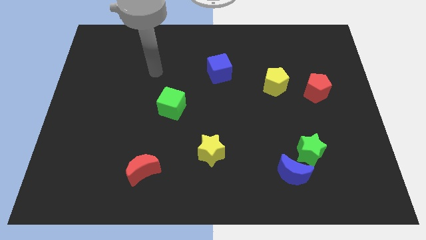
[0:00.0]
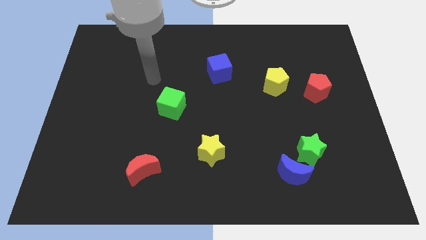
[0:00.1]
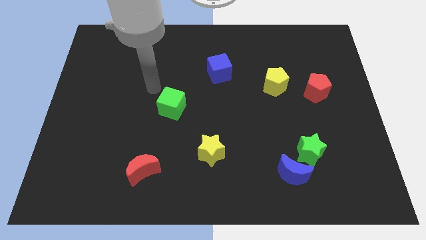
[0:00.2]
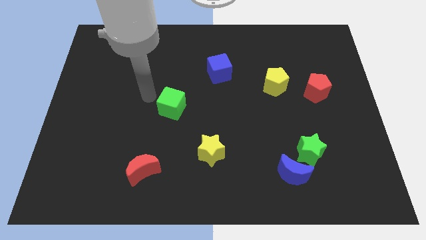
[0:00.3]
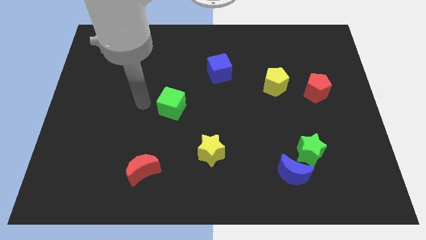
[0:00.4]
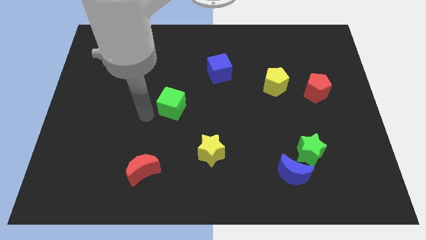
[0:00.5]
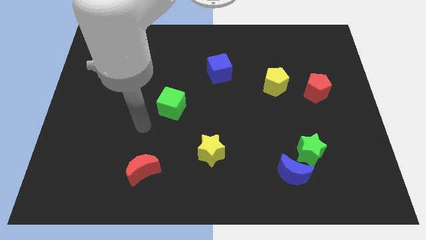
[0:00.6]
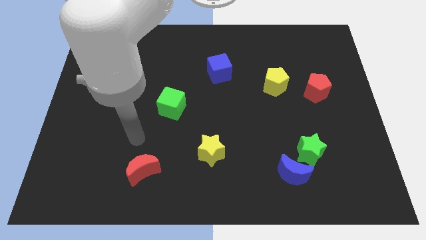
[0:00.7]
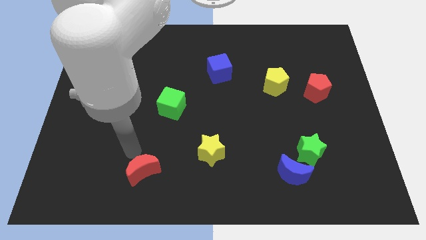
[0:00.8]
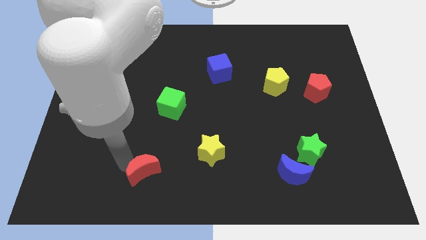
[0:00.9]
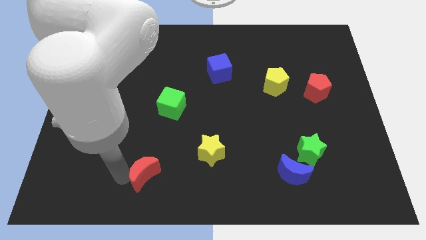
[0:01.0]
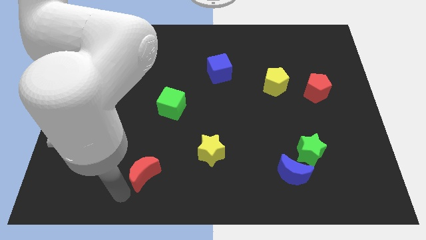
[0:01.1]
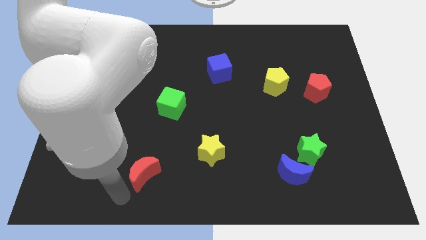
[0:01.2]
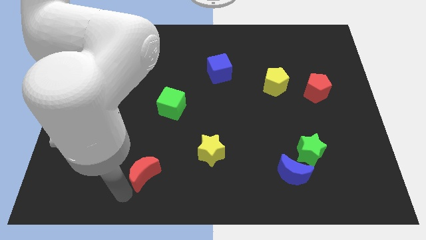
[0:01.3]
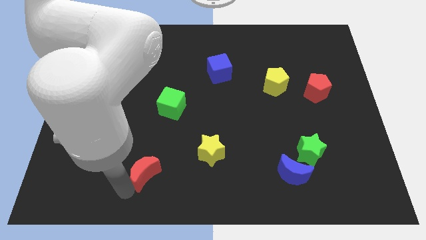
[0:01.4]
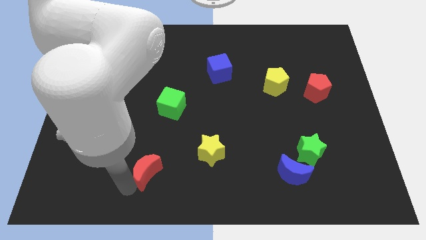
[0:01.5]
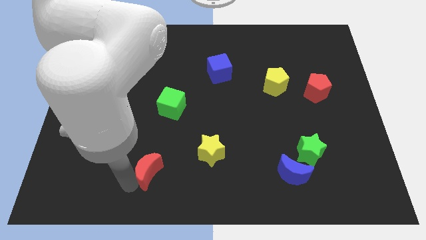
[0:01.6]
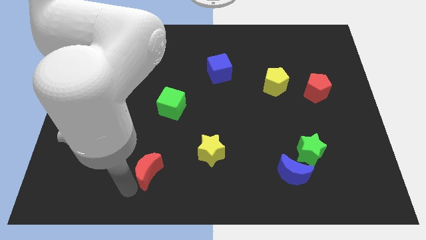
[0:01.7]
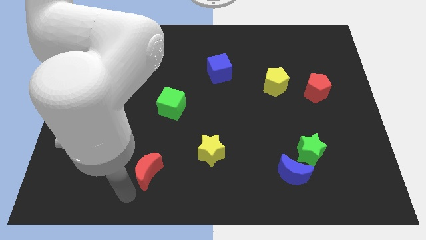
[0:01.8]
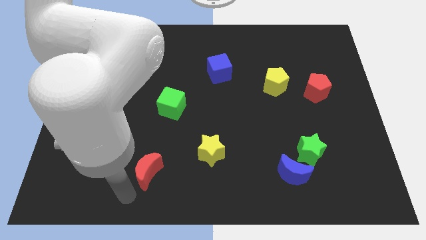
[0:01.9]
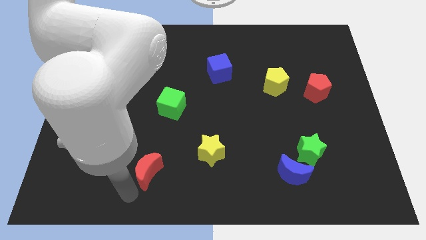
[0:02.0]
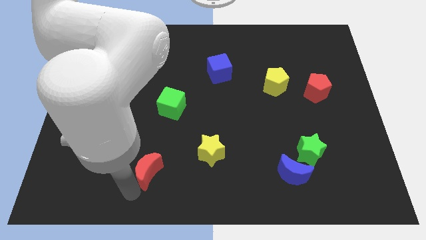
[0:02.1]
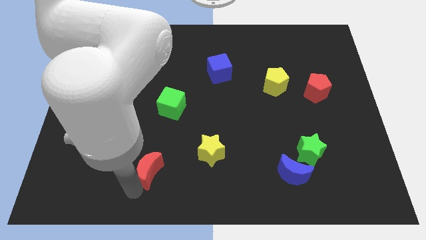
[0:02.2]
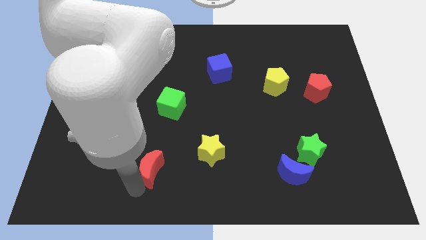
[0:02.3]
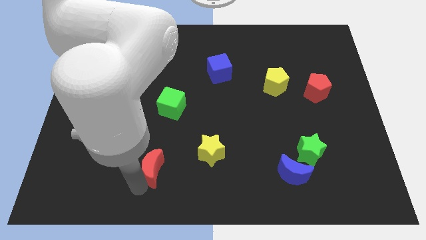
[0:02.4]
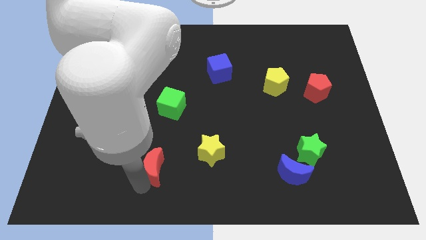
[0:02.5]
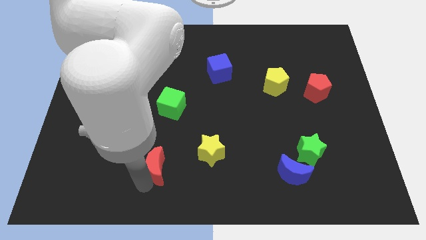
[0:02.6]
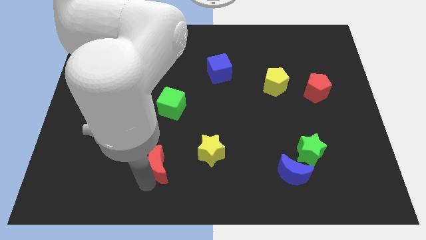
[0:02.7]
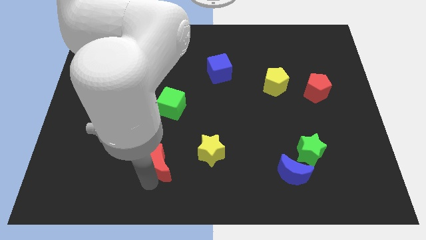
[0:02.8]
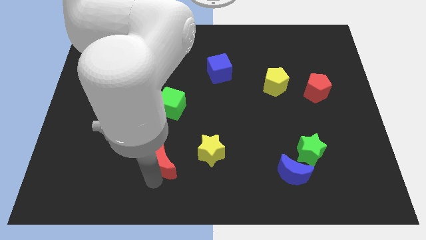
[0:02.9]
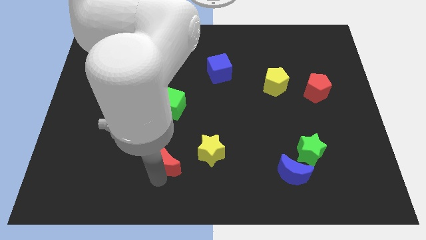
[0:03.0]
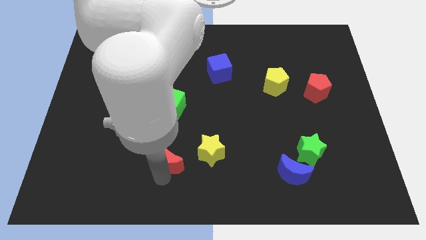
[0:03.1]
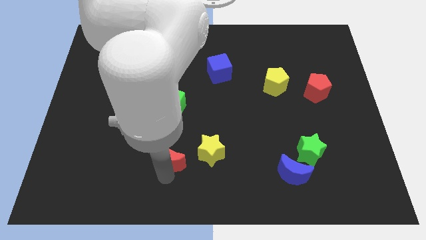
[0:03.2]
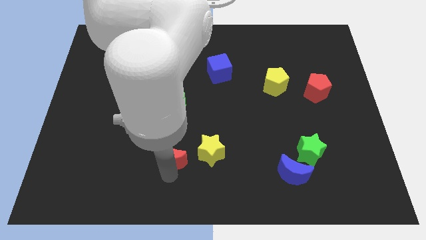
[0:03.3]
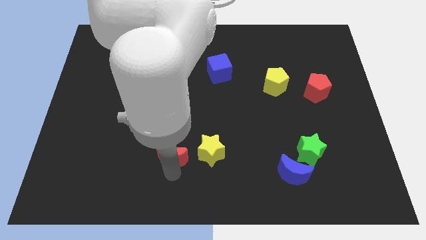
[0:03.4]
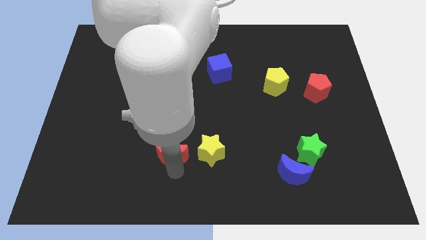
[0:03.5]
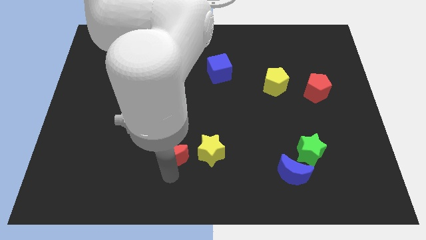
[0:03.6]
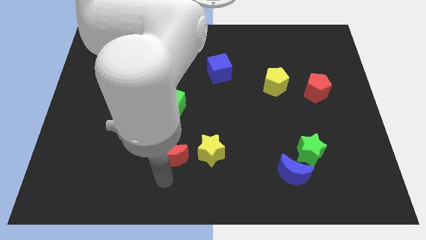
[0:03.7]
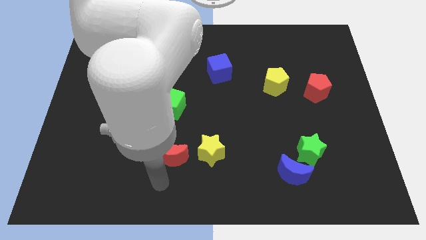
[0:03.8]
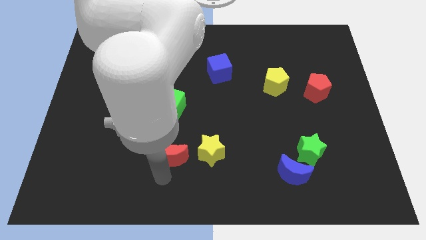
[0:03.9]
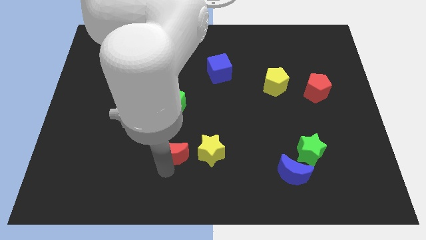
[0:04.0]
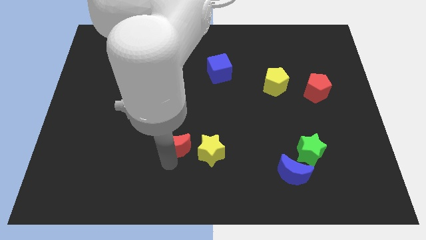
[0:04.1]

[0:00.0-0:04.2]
slide the red moon a little up and right diagonally

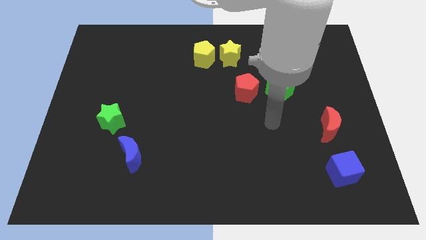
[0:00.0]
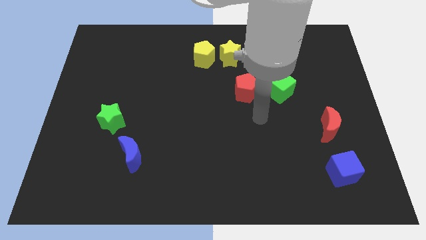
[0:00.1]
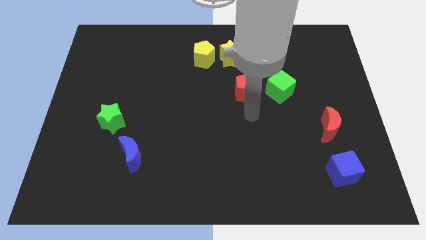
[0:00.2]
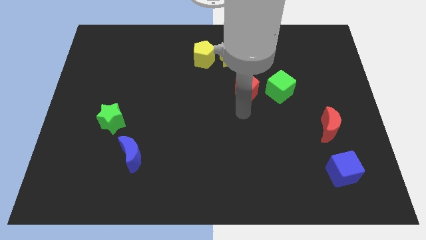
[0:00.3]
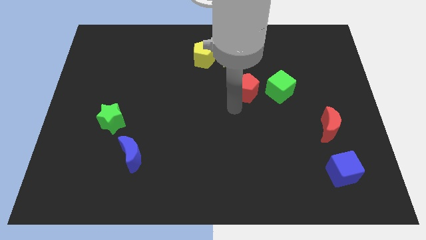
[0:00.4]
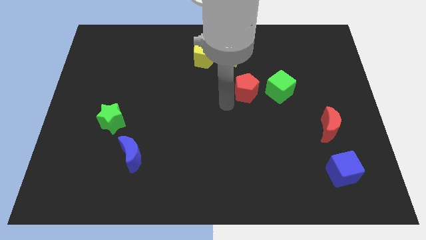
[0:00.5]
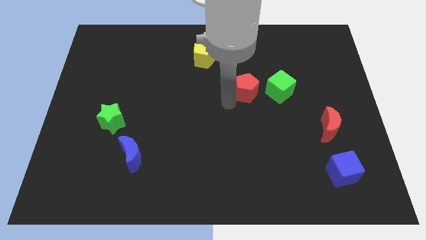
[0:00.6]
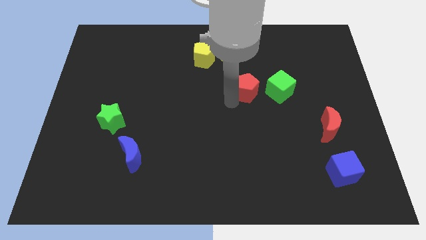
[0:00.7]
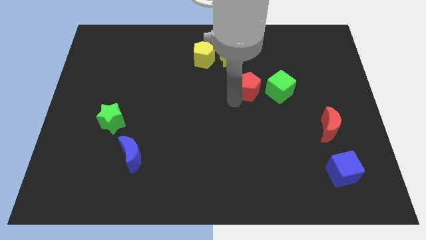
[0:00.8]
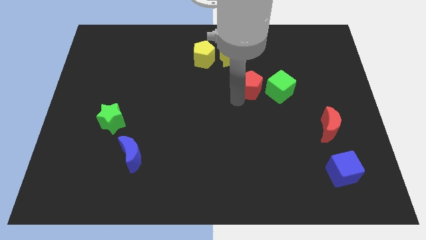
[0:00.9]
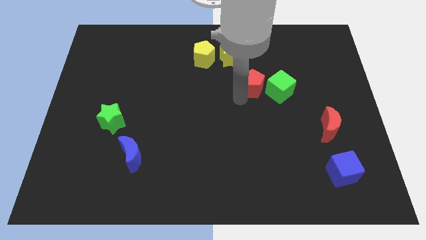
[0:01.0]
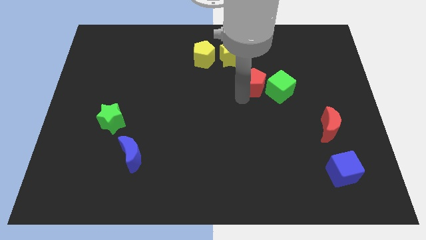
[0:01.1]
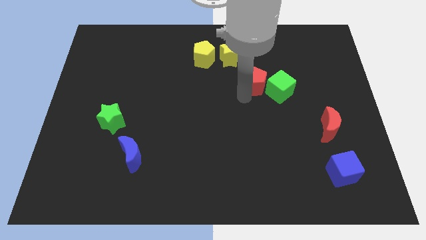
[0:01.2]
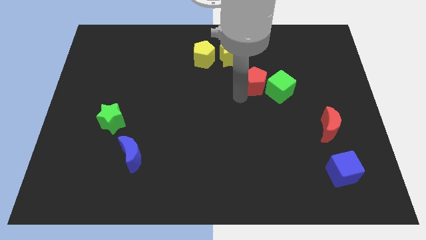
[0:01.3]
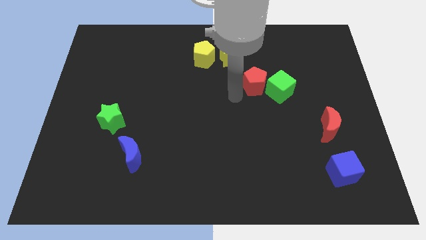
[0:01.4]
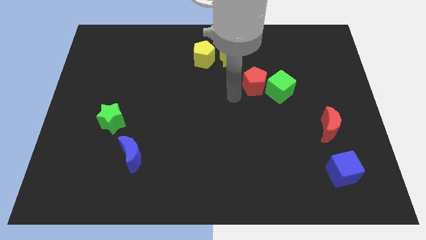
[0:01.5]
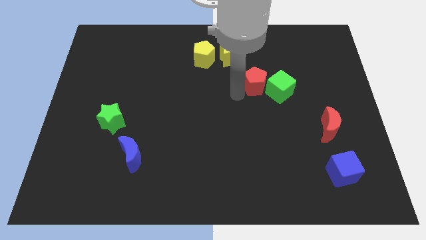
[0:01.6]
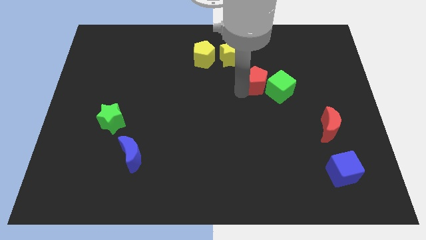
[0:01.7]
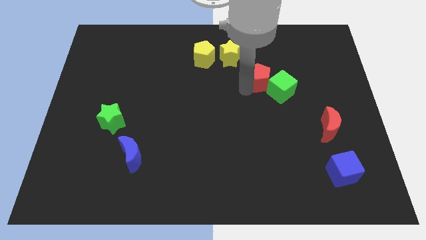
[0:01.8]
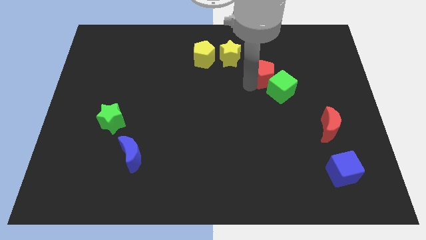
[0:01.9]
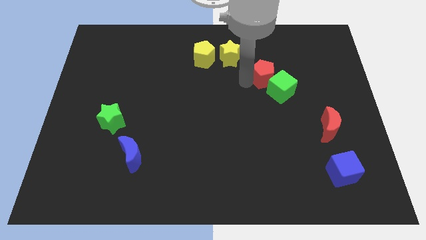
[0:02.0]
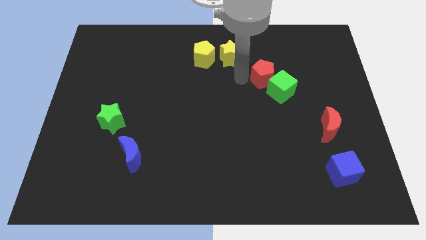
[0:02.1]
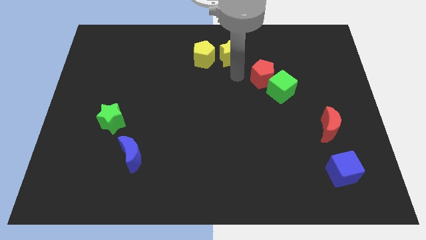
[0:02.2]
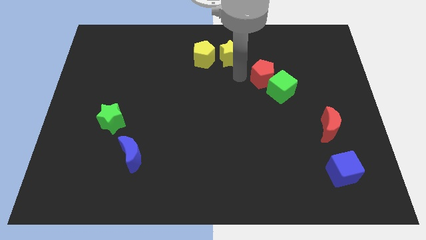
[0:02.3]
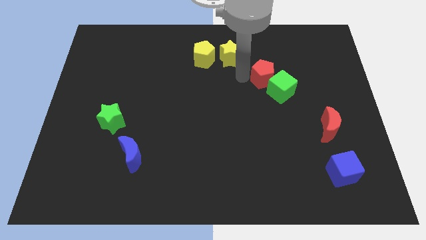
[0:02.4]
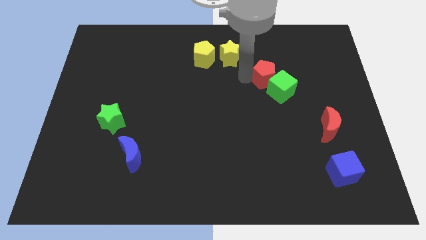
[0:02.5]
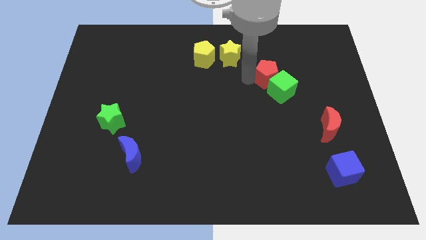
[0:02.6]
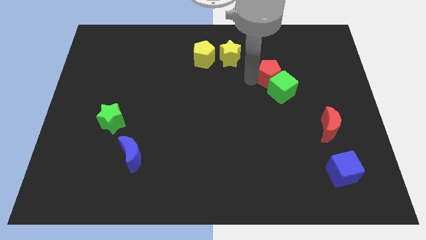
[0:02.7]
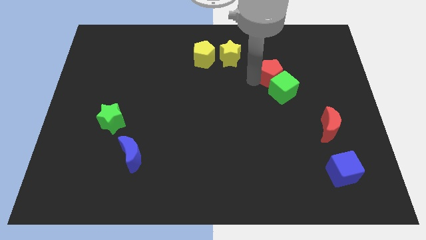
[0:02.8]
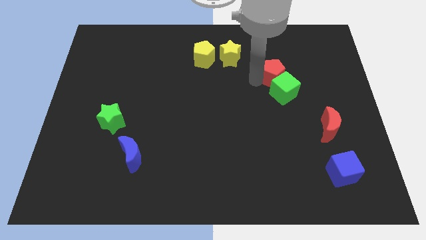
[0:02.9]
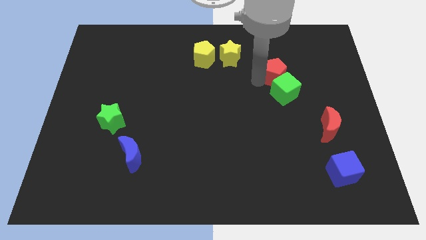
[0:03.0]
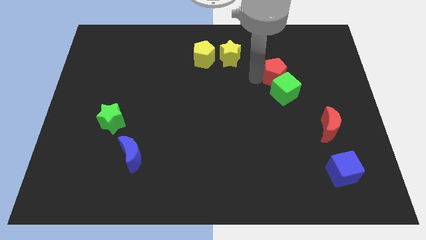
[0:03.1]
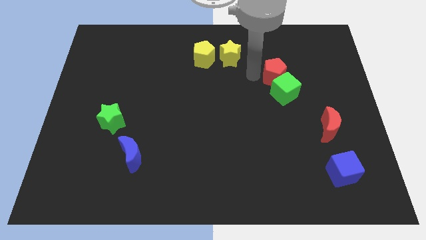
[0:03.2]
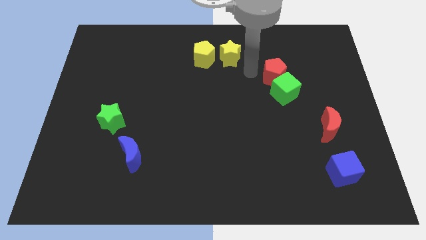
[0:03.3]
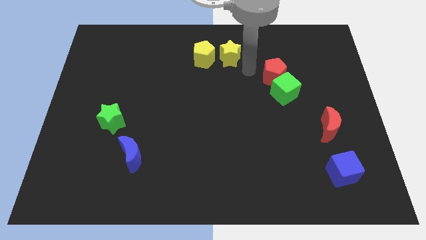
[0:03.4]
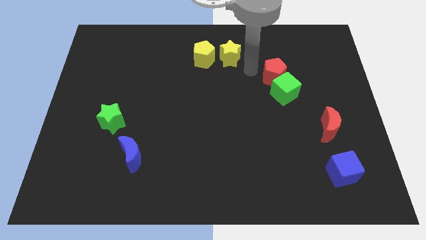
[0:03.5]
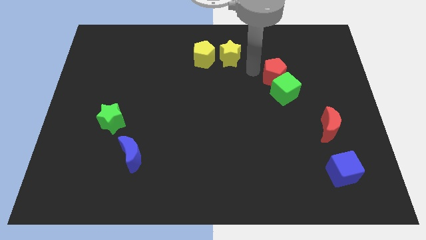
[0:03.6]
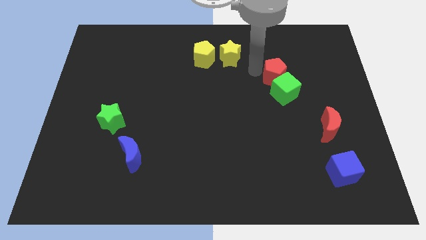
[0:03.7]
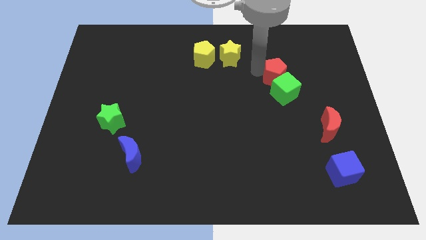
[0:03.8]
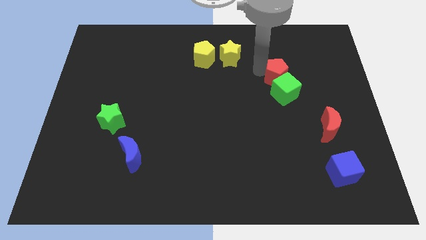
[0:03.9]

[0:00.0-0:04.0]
push the red pentagon a little to the right

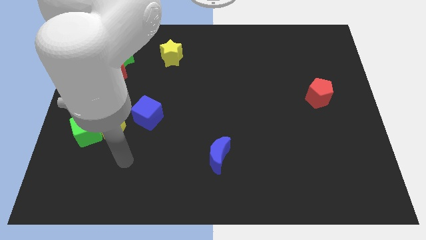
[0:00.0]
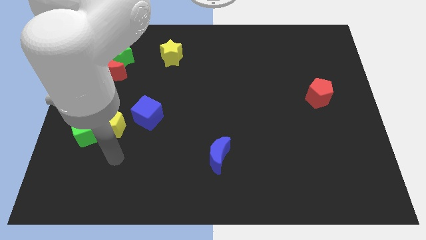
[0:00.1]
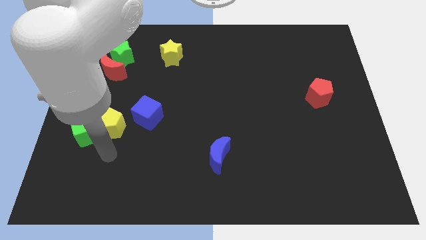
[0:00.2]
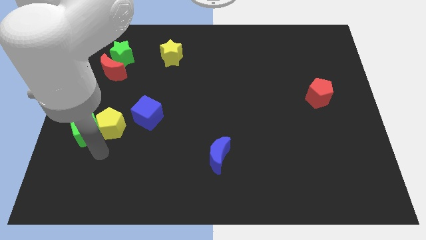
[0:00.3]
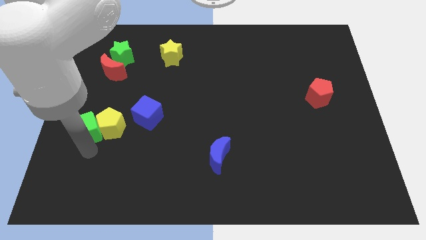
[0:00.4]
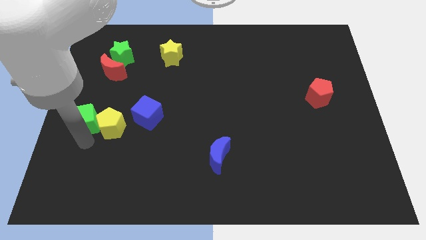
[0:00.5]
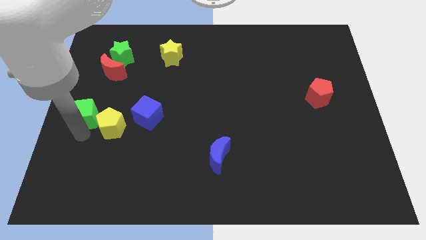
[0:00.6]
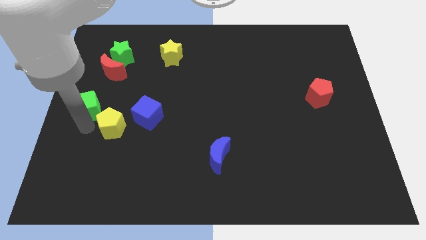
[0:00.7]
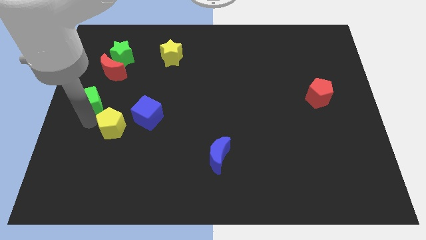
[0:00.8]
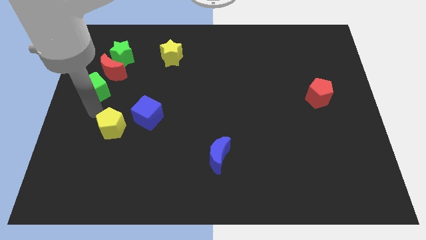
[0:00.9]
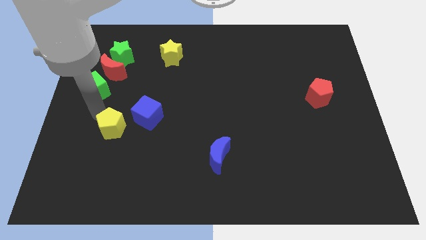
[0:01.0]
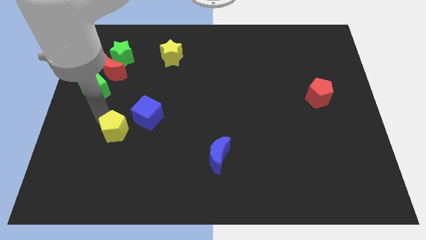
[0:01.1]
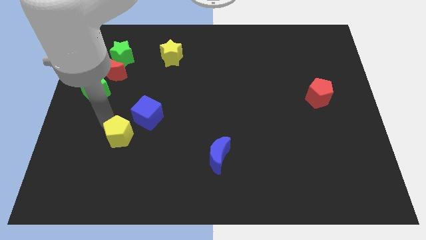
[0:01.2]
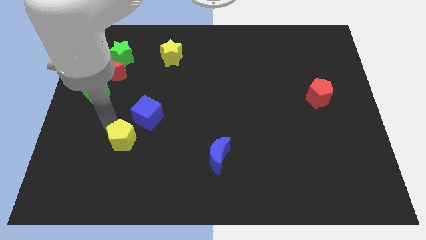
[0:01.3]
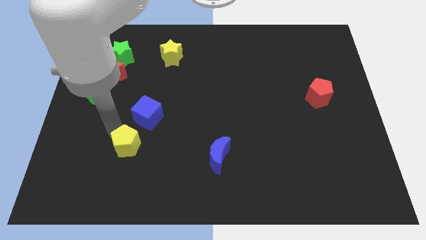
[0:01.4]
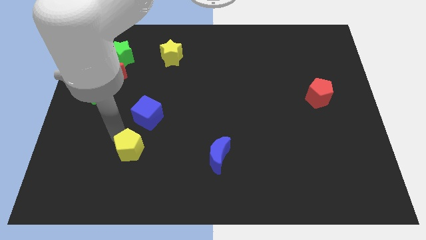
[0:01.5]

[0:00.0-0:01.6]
slightly push the yellow pentagon downwards and then right
